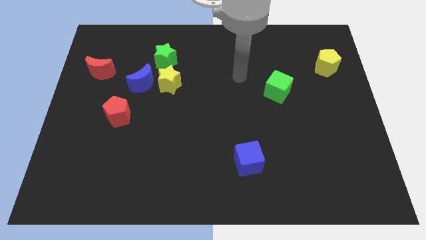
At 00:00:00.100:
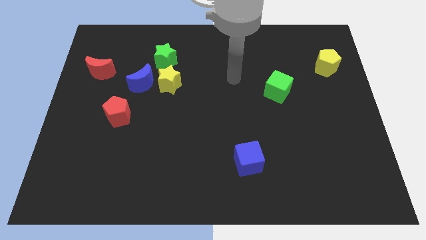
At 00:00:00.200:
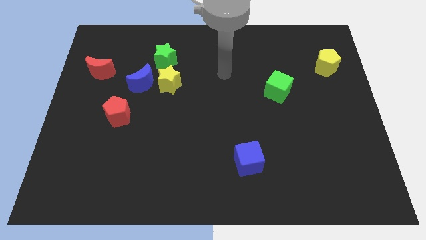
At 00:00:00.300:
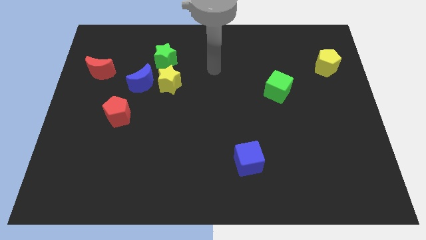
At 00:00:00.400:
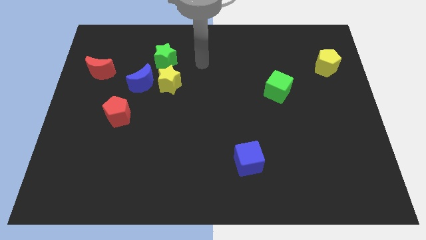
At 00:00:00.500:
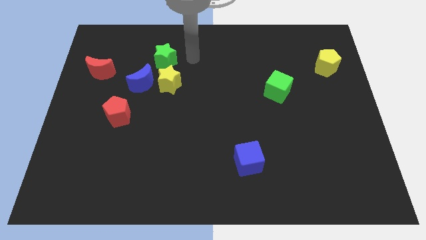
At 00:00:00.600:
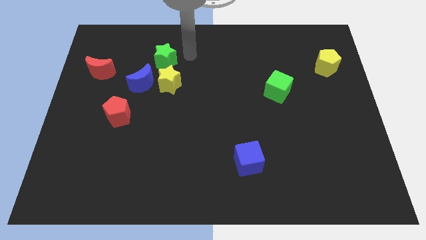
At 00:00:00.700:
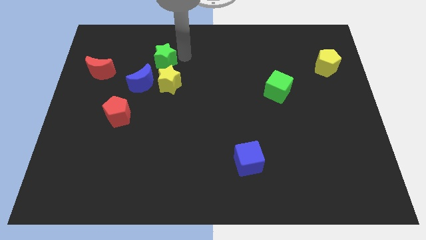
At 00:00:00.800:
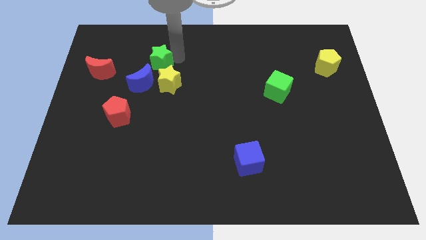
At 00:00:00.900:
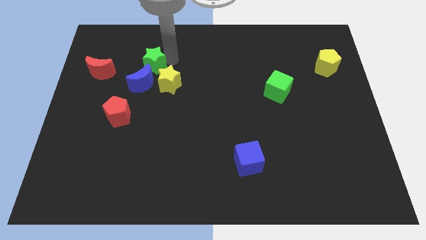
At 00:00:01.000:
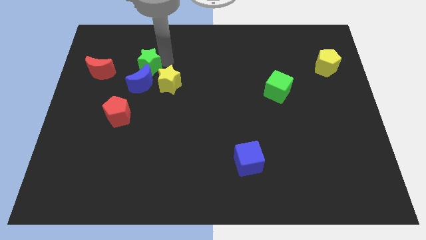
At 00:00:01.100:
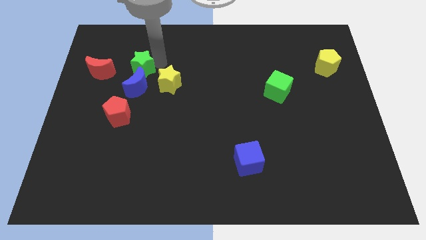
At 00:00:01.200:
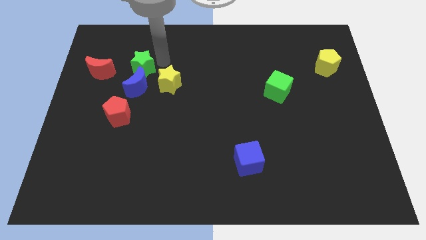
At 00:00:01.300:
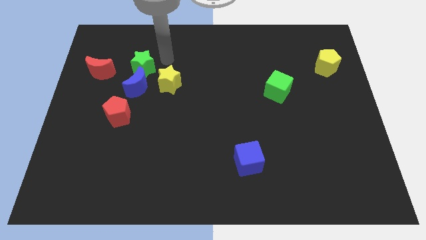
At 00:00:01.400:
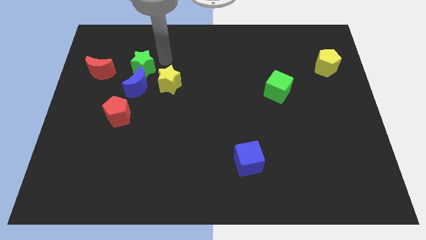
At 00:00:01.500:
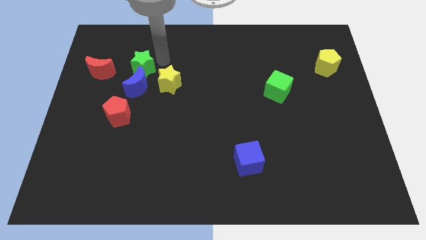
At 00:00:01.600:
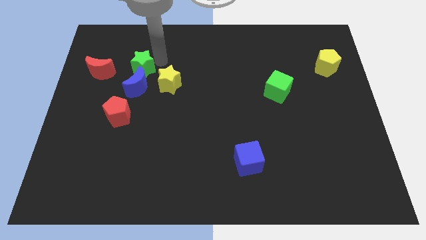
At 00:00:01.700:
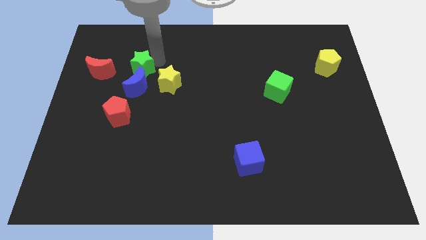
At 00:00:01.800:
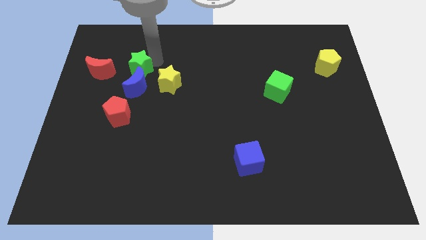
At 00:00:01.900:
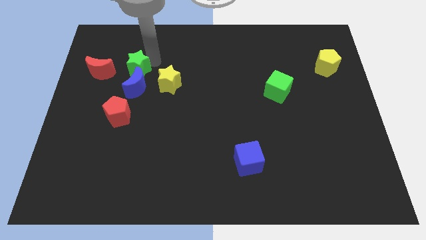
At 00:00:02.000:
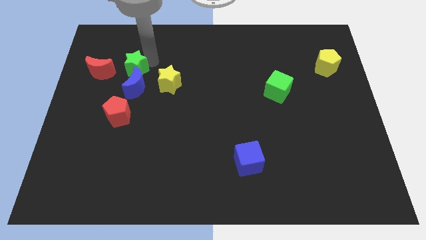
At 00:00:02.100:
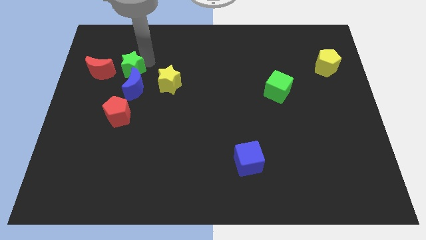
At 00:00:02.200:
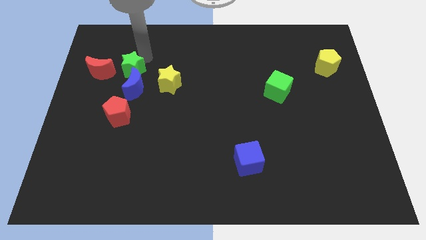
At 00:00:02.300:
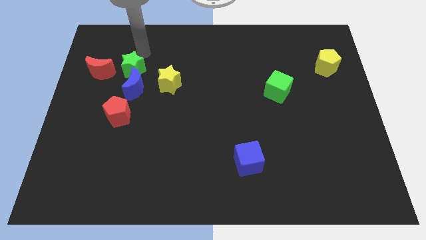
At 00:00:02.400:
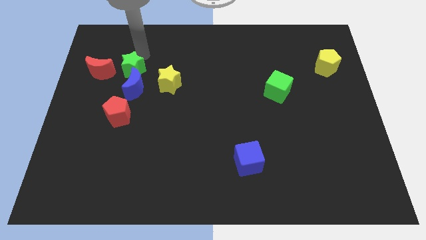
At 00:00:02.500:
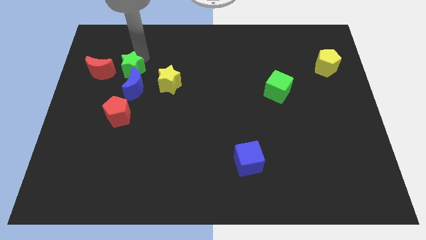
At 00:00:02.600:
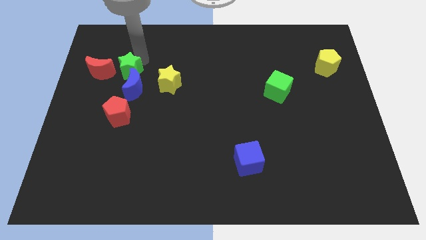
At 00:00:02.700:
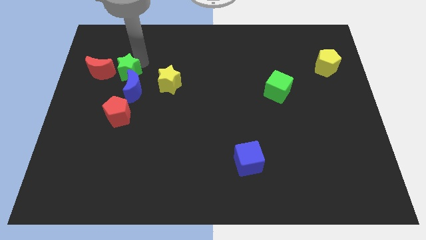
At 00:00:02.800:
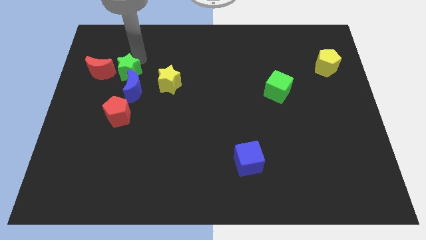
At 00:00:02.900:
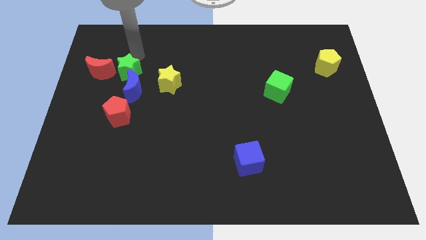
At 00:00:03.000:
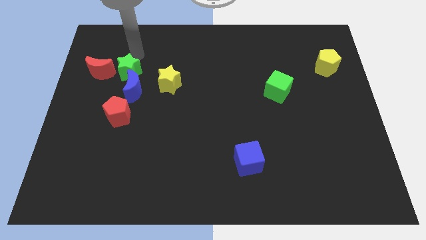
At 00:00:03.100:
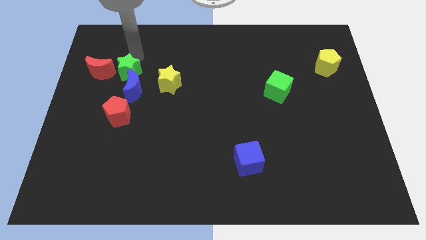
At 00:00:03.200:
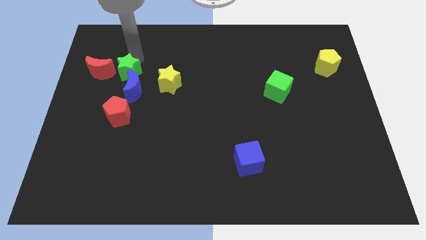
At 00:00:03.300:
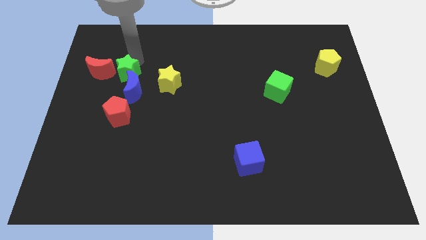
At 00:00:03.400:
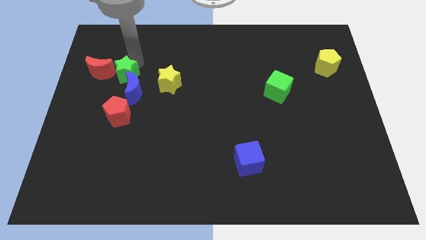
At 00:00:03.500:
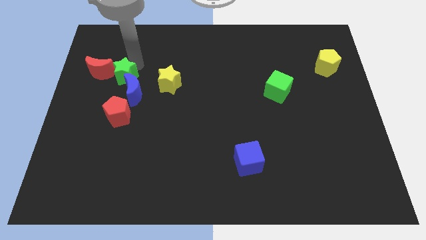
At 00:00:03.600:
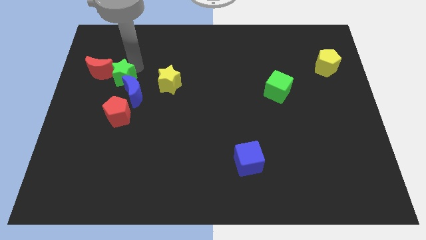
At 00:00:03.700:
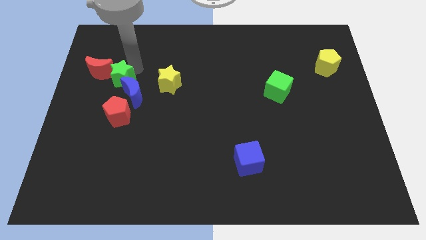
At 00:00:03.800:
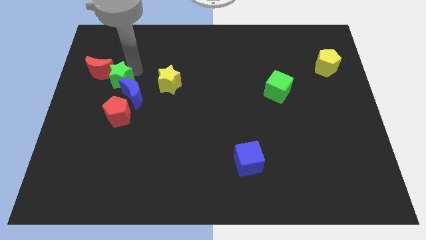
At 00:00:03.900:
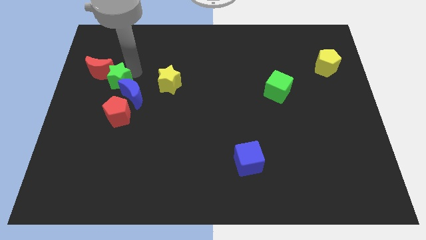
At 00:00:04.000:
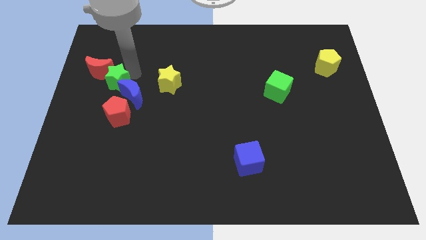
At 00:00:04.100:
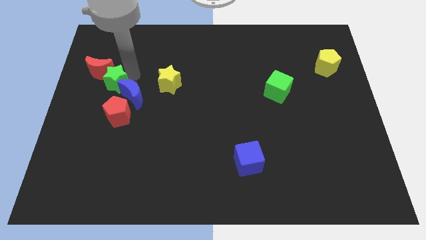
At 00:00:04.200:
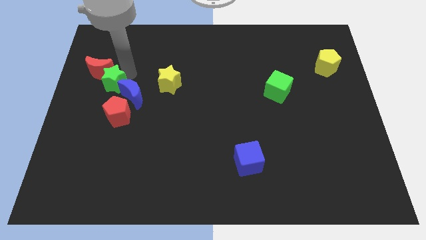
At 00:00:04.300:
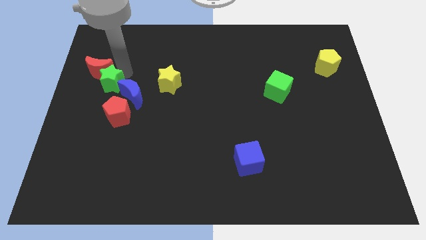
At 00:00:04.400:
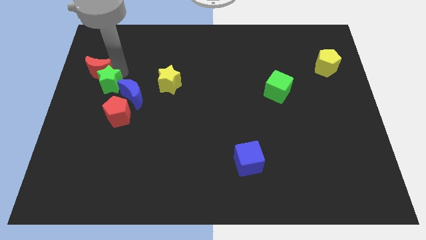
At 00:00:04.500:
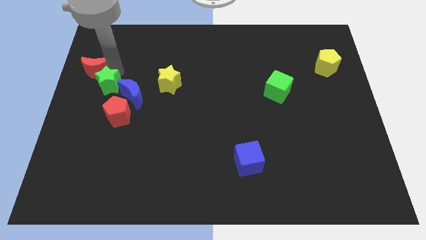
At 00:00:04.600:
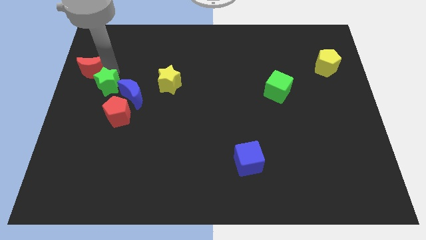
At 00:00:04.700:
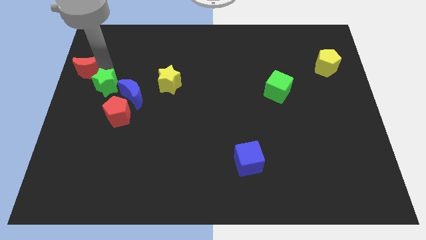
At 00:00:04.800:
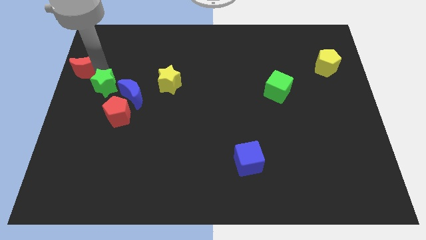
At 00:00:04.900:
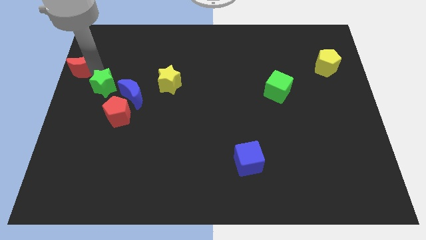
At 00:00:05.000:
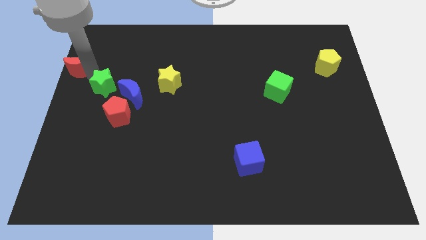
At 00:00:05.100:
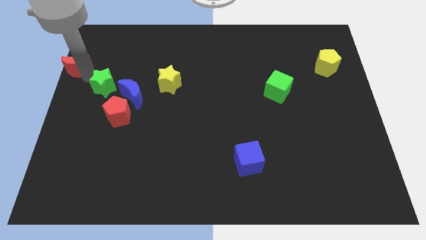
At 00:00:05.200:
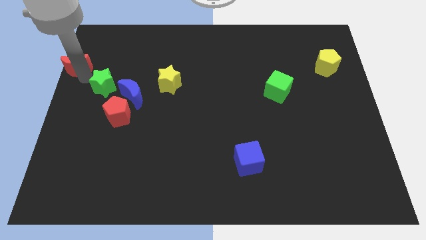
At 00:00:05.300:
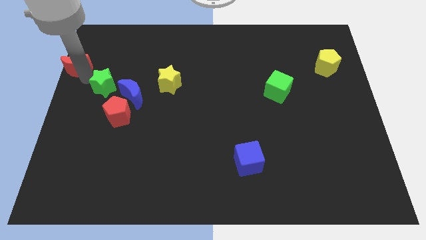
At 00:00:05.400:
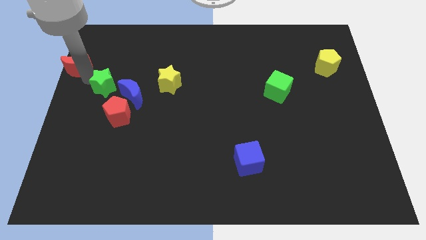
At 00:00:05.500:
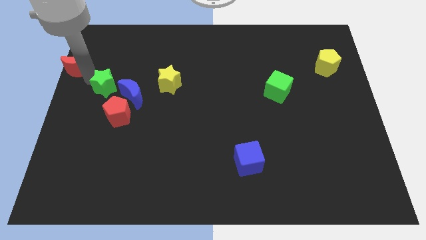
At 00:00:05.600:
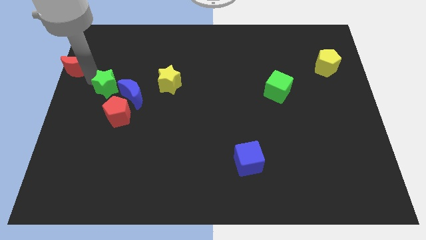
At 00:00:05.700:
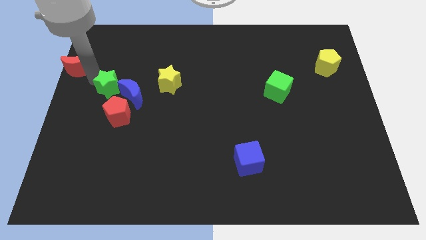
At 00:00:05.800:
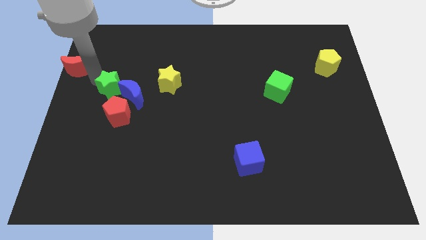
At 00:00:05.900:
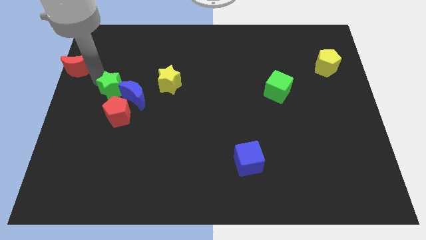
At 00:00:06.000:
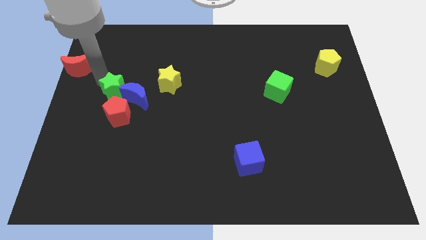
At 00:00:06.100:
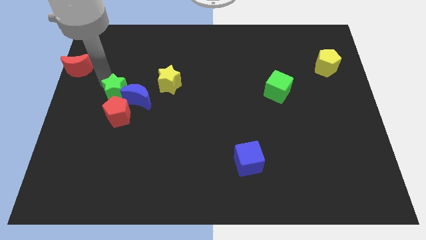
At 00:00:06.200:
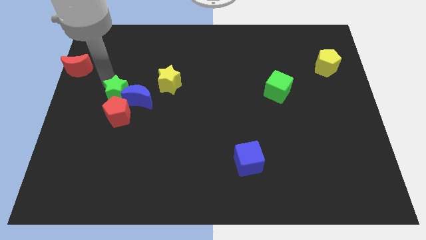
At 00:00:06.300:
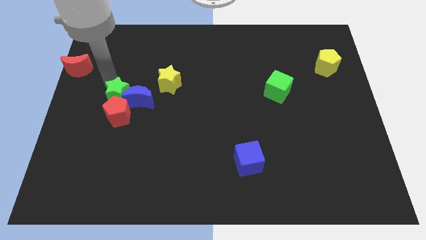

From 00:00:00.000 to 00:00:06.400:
push the green star next to the red pentagon

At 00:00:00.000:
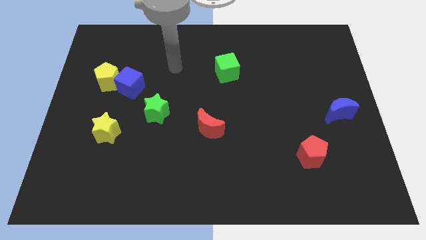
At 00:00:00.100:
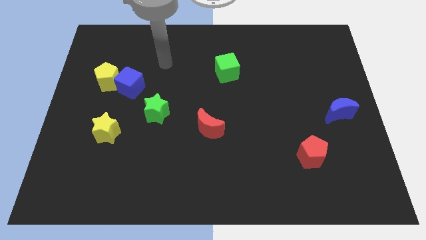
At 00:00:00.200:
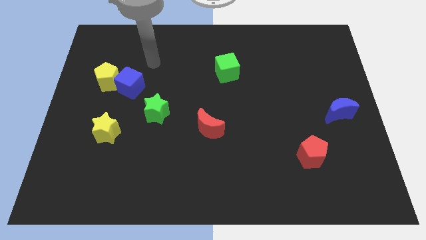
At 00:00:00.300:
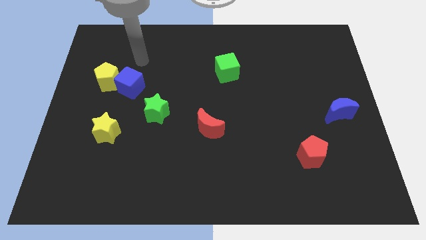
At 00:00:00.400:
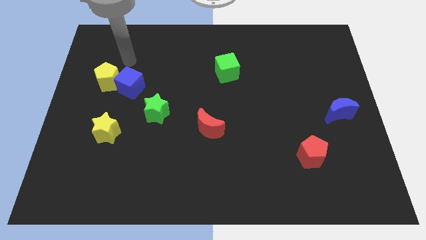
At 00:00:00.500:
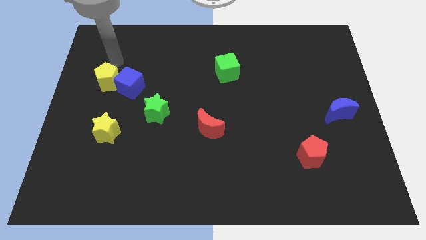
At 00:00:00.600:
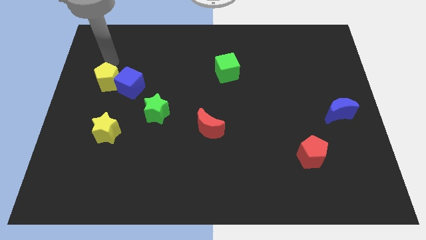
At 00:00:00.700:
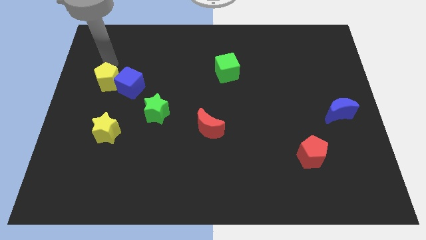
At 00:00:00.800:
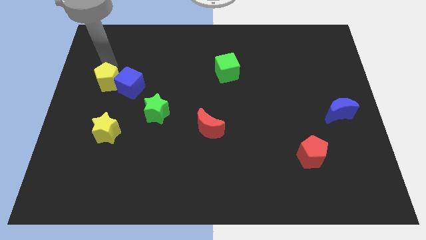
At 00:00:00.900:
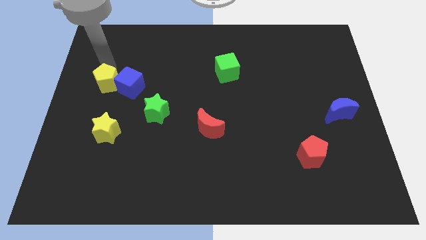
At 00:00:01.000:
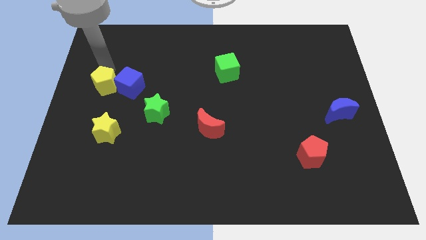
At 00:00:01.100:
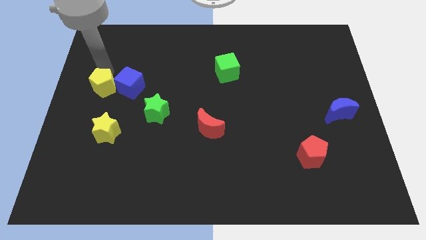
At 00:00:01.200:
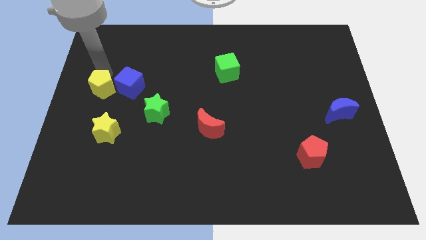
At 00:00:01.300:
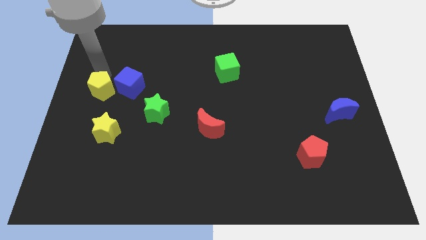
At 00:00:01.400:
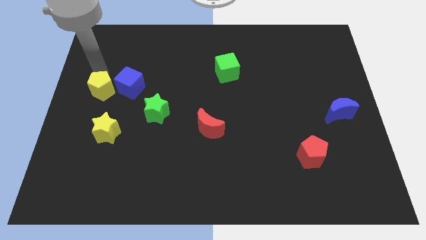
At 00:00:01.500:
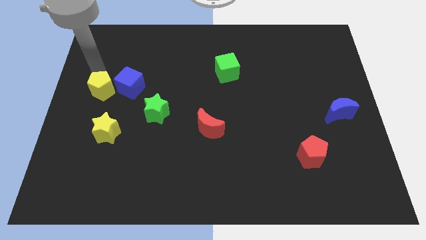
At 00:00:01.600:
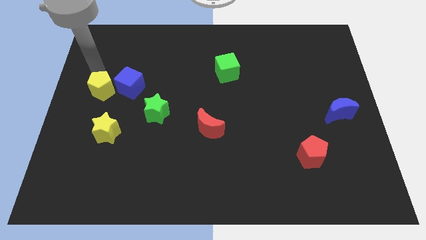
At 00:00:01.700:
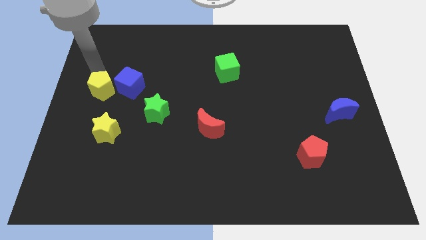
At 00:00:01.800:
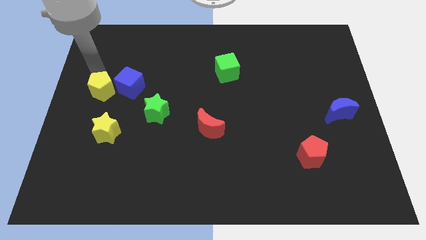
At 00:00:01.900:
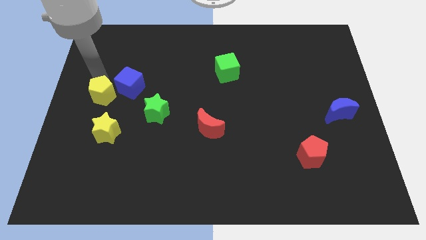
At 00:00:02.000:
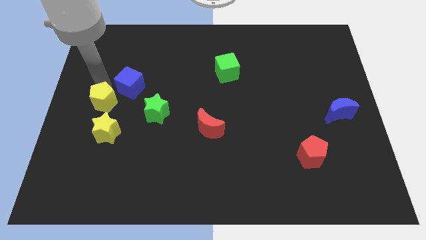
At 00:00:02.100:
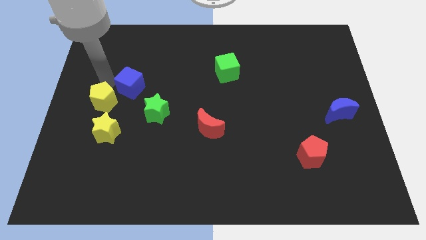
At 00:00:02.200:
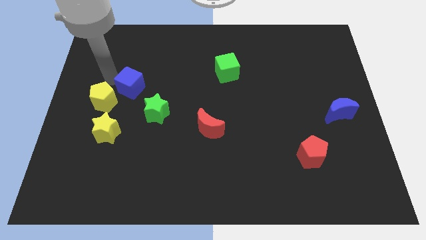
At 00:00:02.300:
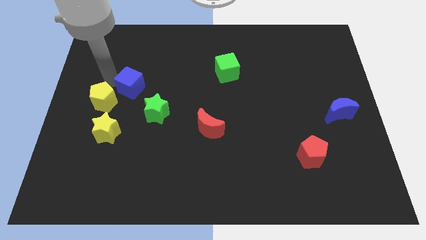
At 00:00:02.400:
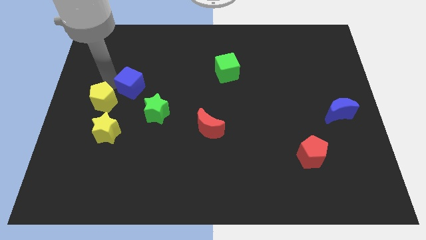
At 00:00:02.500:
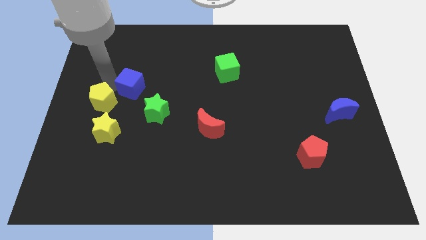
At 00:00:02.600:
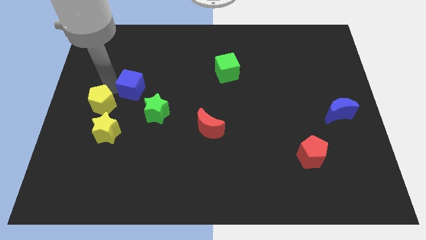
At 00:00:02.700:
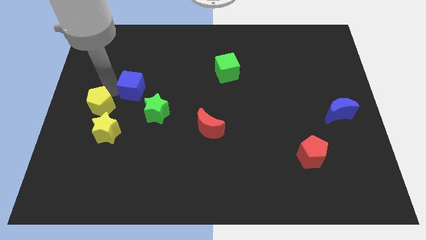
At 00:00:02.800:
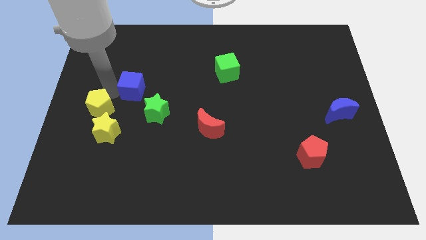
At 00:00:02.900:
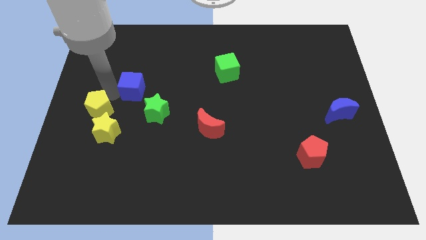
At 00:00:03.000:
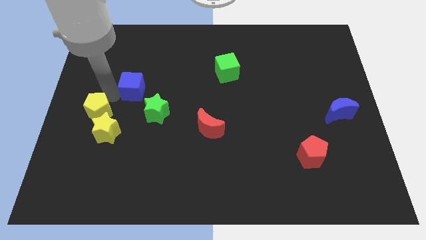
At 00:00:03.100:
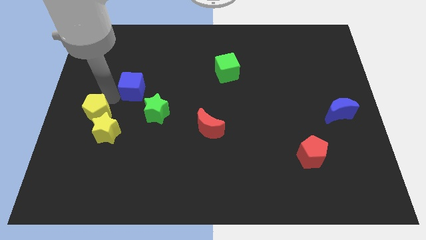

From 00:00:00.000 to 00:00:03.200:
move the yellow pentagon towards the yellow star
